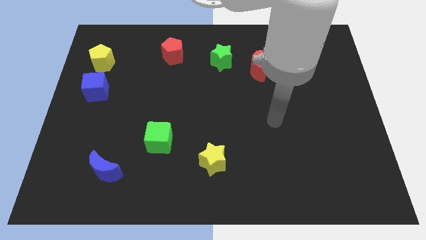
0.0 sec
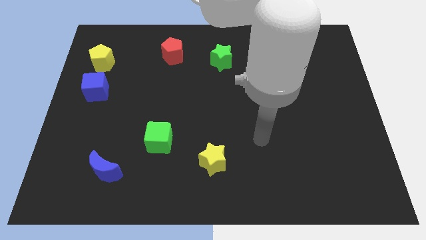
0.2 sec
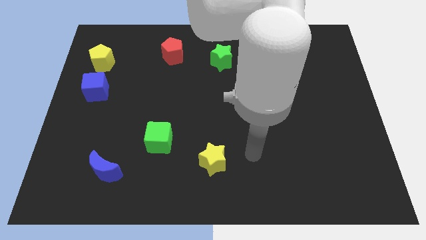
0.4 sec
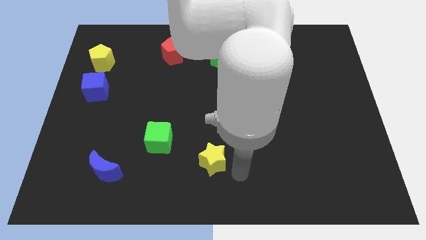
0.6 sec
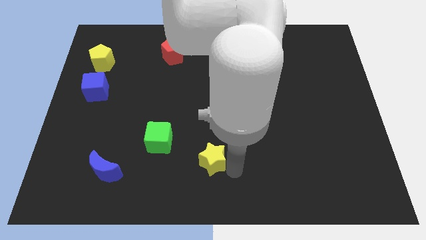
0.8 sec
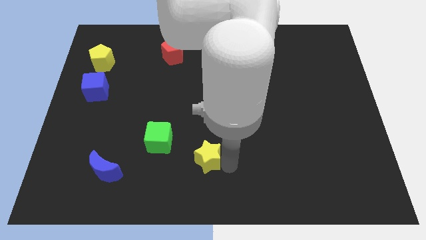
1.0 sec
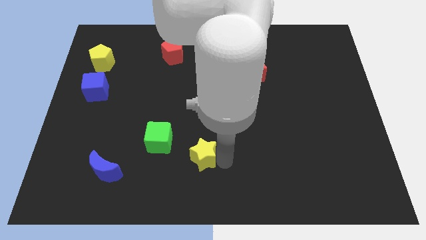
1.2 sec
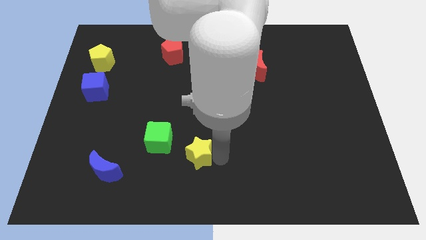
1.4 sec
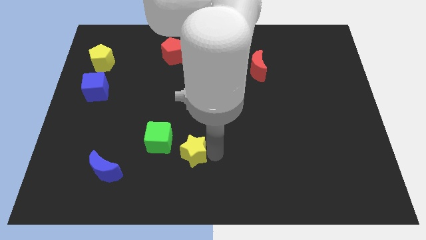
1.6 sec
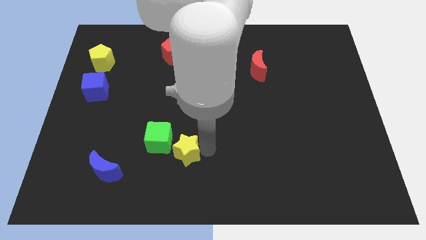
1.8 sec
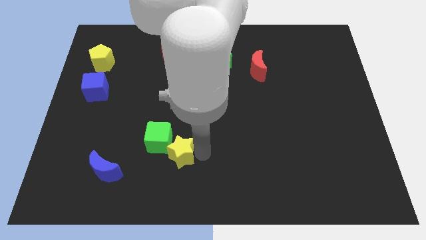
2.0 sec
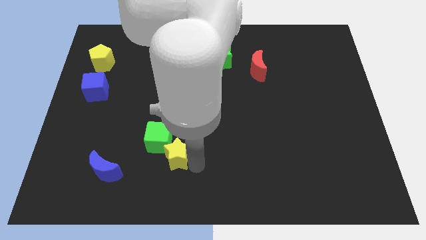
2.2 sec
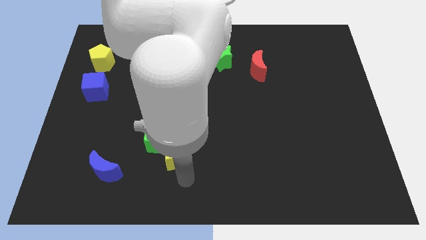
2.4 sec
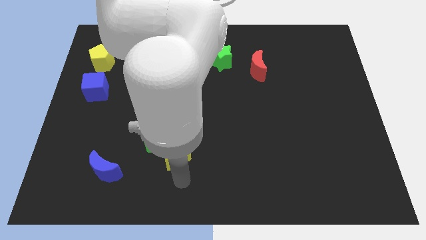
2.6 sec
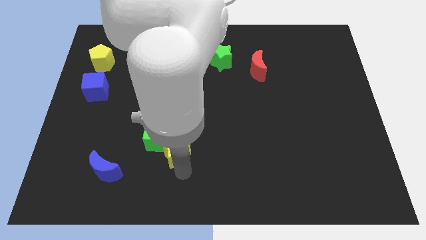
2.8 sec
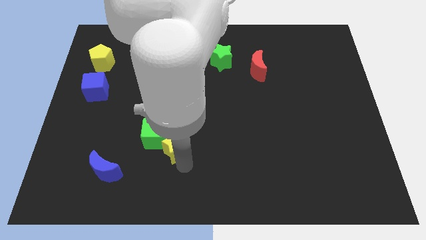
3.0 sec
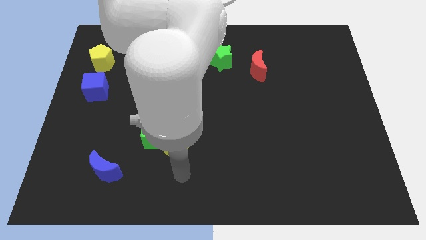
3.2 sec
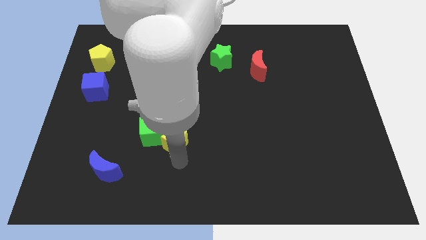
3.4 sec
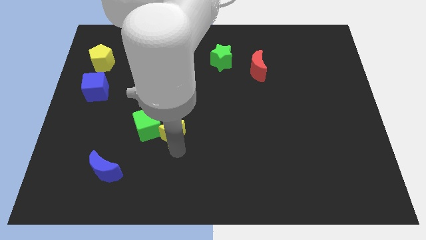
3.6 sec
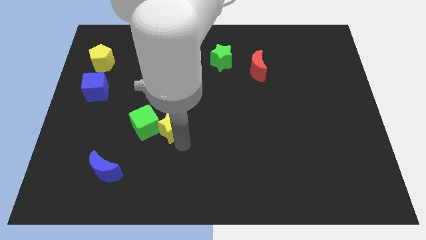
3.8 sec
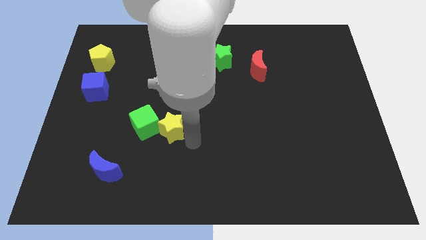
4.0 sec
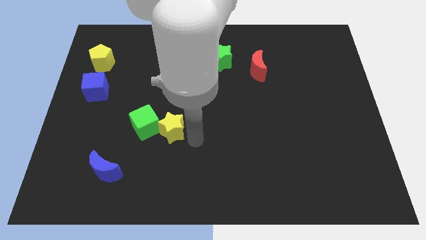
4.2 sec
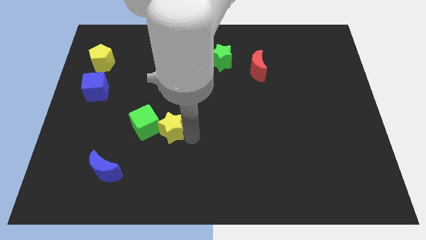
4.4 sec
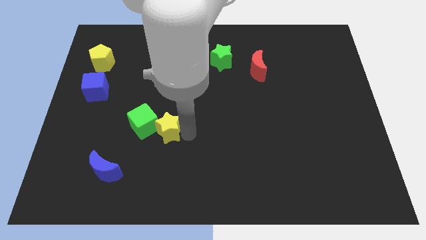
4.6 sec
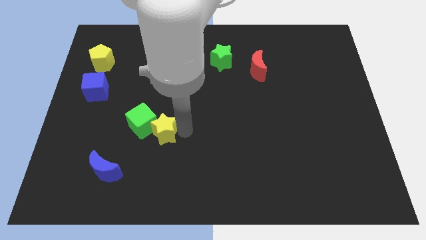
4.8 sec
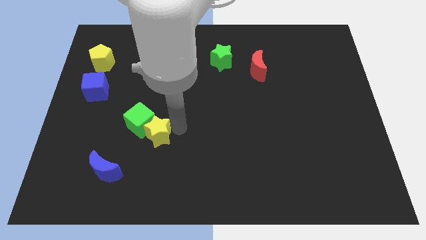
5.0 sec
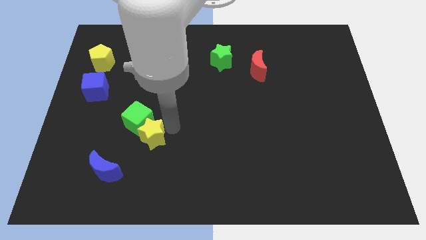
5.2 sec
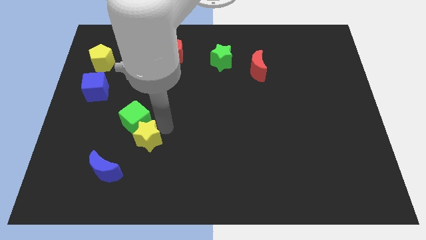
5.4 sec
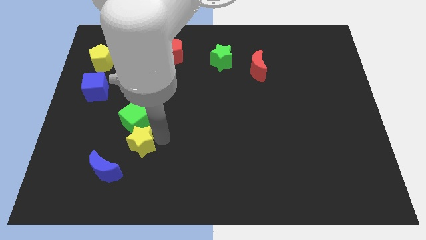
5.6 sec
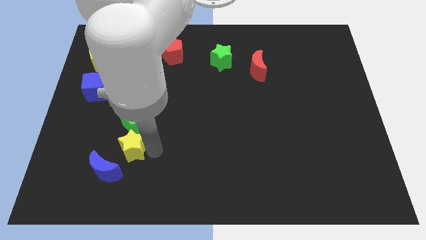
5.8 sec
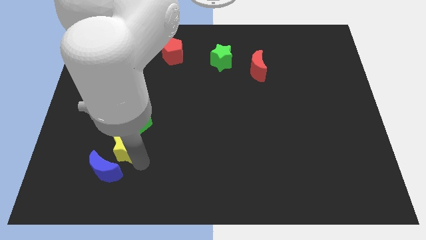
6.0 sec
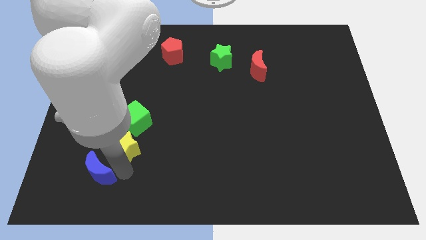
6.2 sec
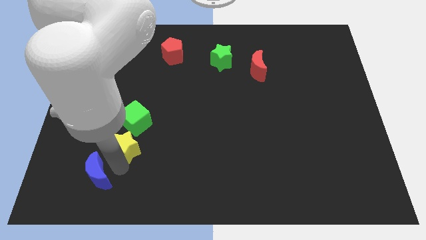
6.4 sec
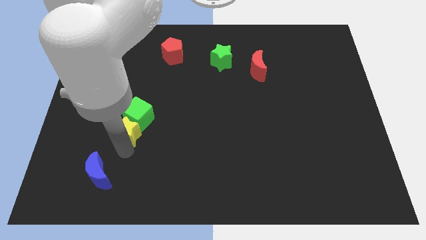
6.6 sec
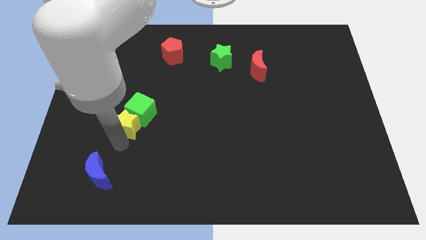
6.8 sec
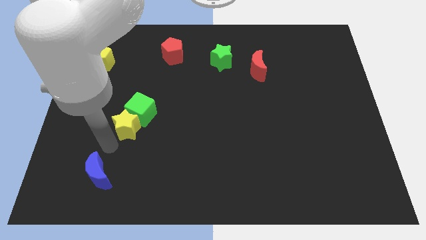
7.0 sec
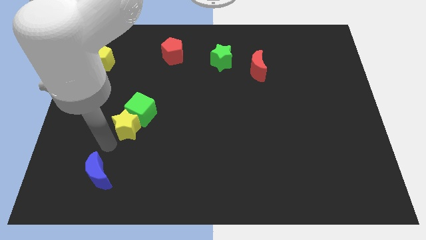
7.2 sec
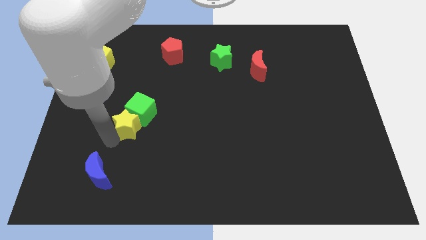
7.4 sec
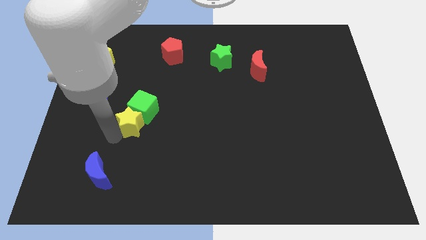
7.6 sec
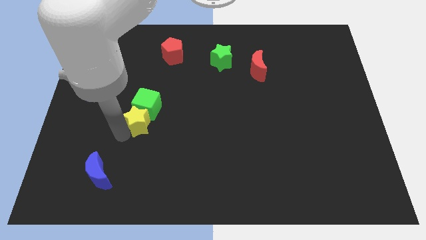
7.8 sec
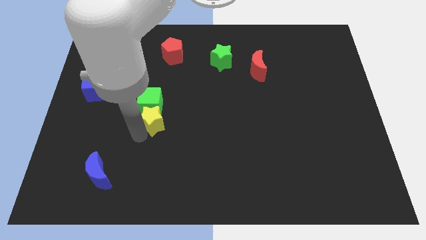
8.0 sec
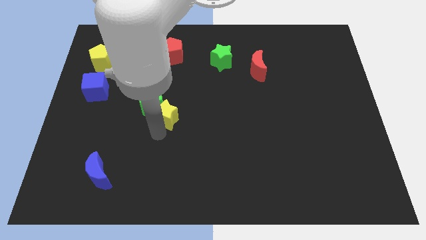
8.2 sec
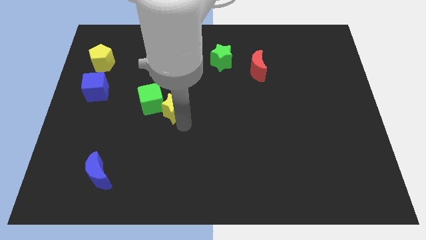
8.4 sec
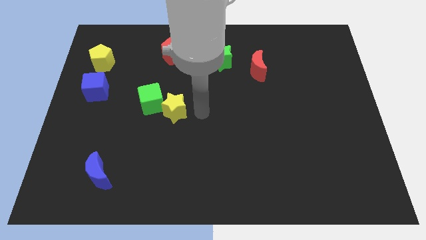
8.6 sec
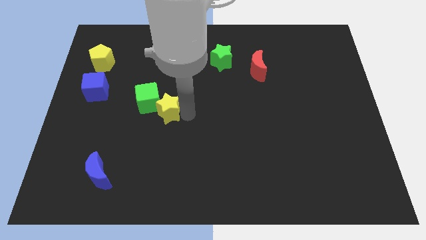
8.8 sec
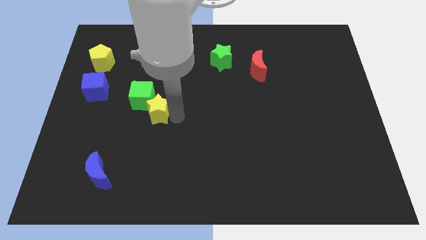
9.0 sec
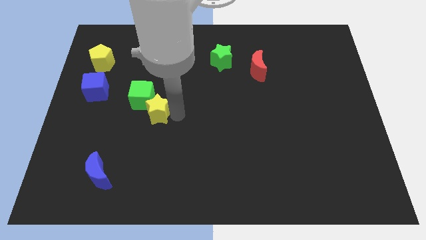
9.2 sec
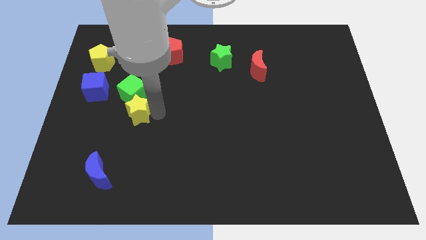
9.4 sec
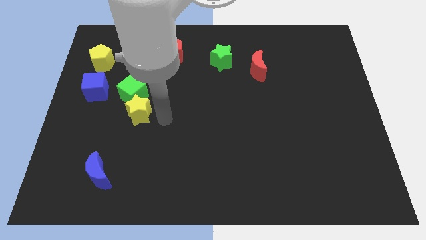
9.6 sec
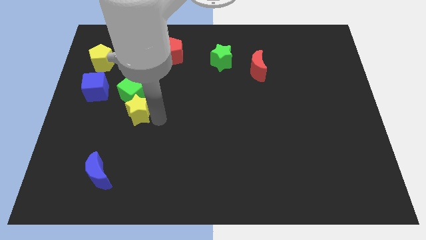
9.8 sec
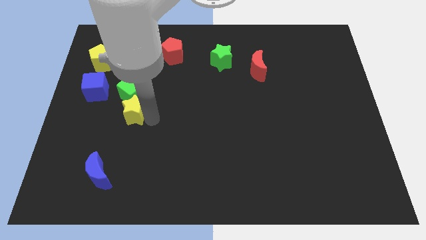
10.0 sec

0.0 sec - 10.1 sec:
push the yellow star diagonally down and to the right of the blue cube

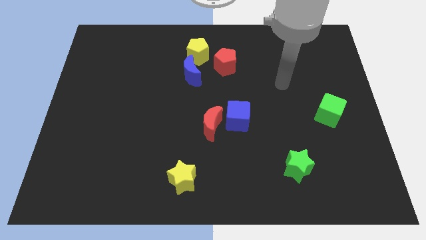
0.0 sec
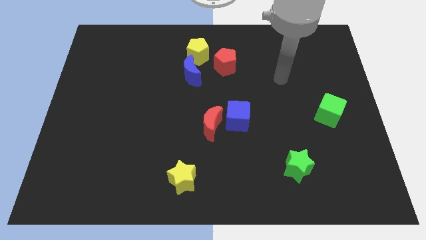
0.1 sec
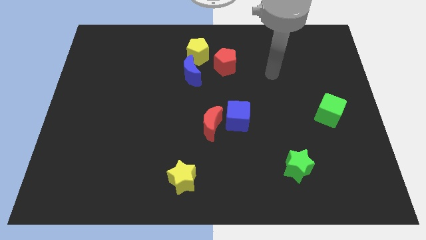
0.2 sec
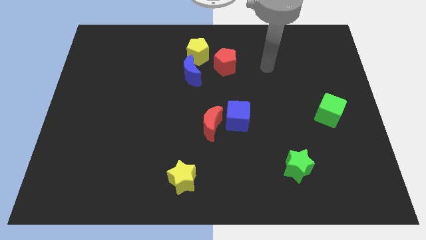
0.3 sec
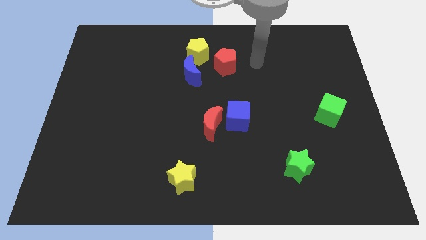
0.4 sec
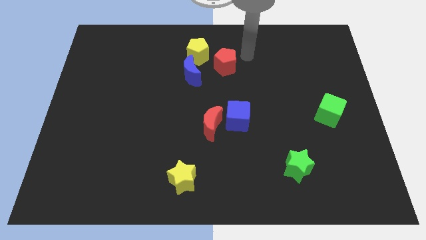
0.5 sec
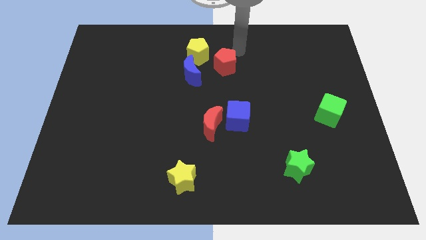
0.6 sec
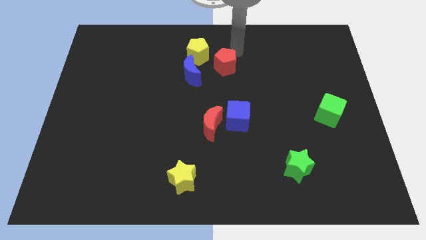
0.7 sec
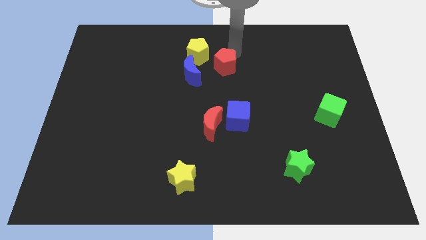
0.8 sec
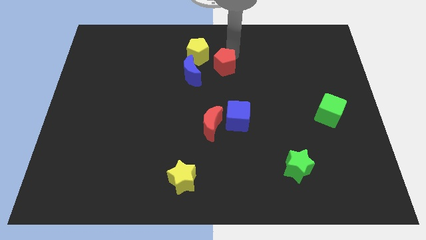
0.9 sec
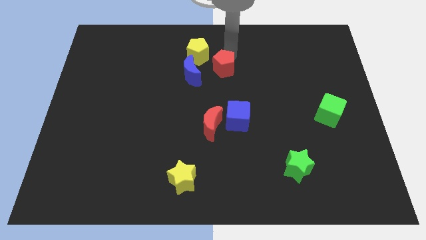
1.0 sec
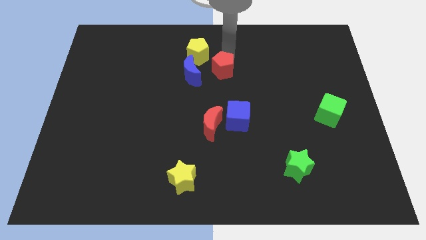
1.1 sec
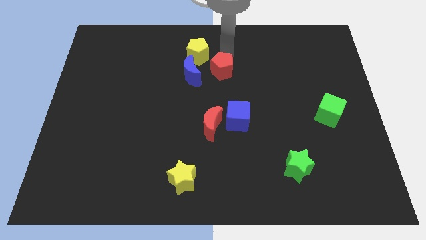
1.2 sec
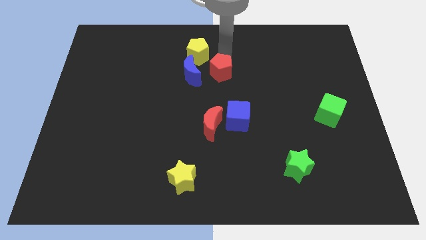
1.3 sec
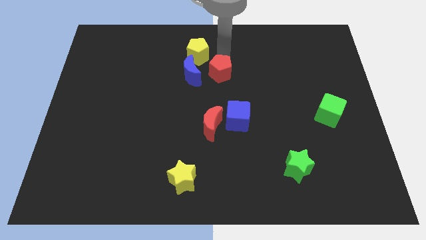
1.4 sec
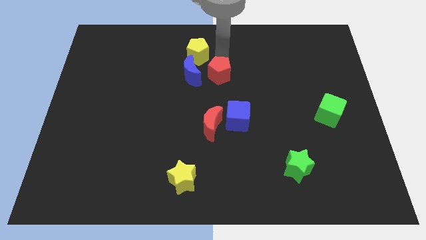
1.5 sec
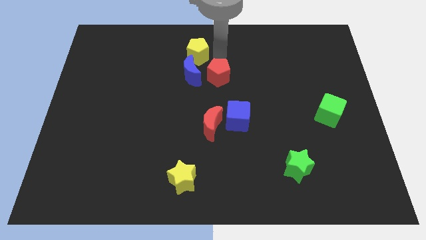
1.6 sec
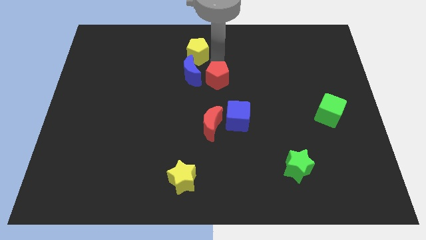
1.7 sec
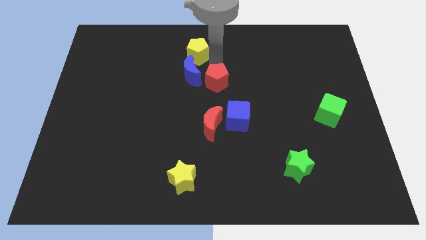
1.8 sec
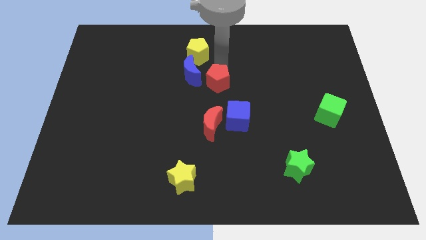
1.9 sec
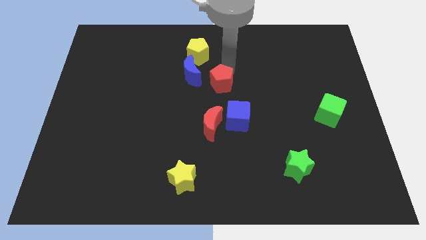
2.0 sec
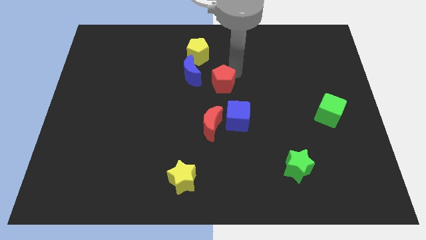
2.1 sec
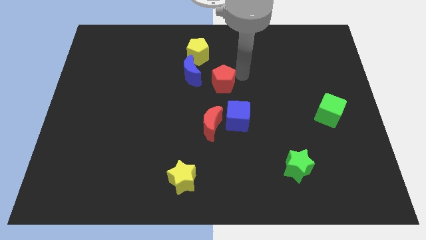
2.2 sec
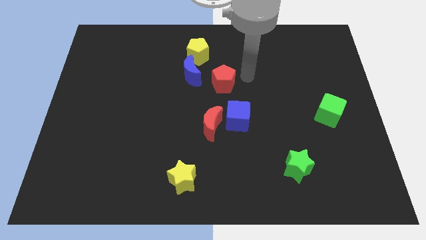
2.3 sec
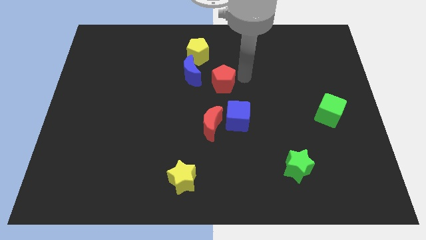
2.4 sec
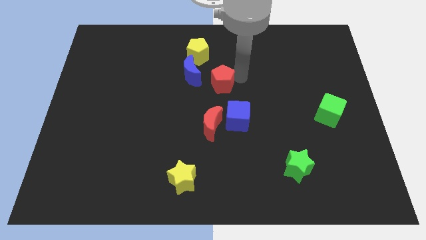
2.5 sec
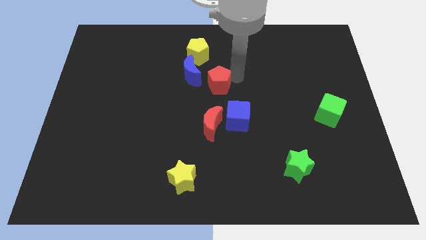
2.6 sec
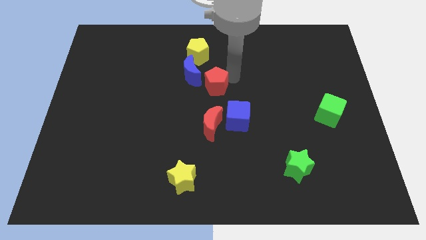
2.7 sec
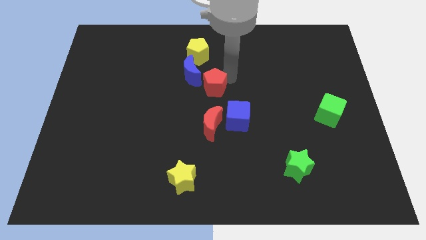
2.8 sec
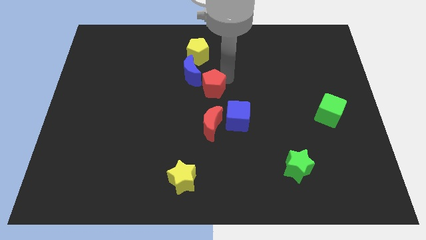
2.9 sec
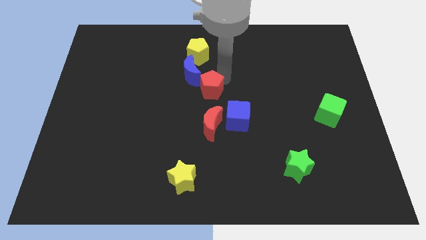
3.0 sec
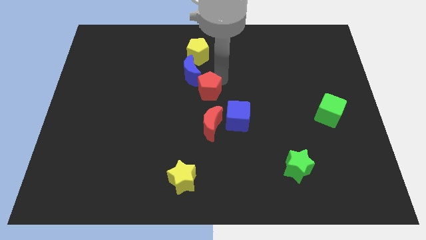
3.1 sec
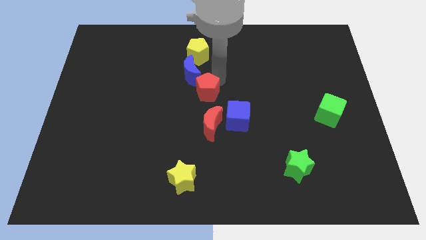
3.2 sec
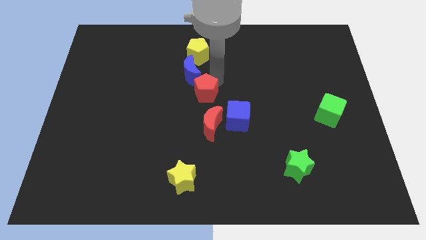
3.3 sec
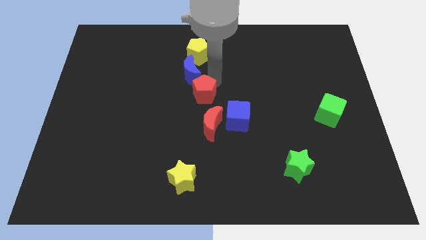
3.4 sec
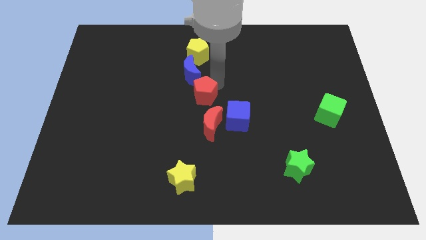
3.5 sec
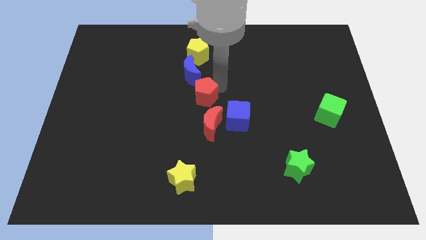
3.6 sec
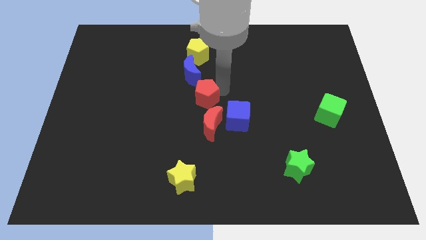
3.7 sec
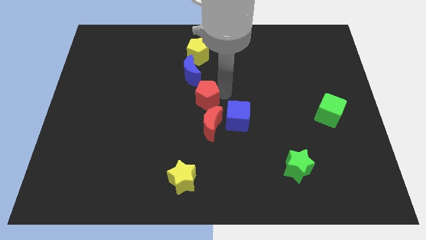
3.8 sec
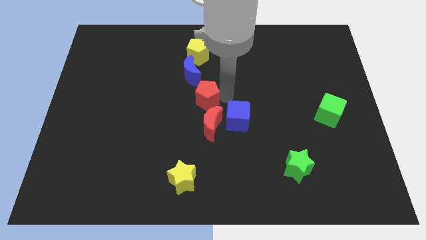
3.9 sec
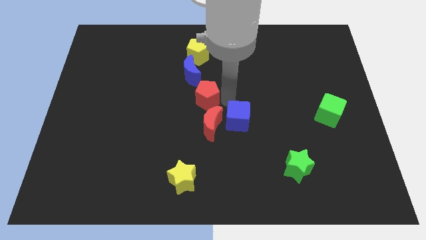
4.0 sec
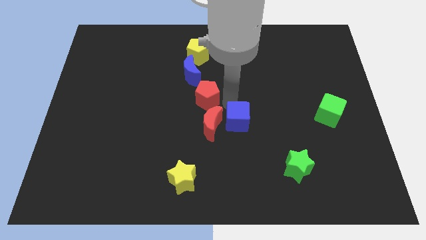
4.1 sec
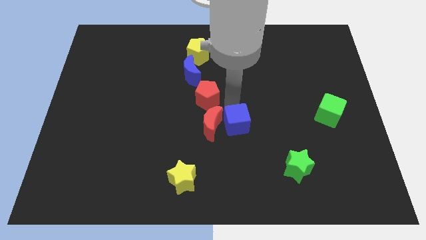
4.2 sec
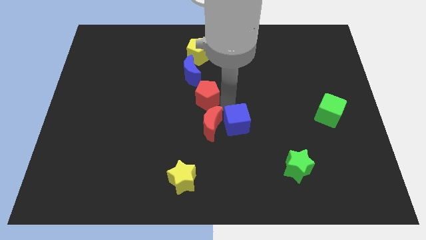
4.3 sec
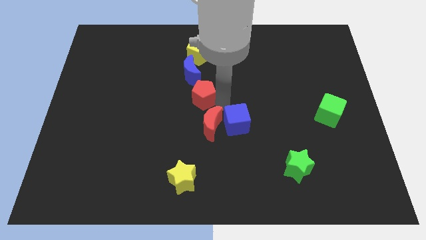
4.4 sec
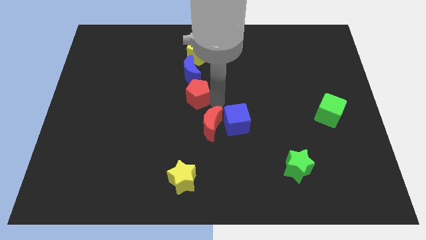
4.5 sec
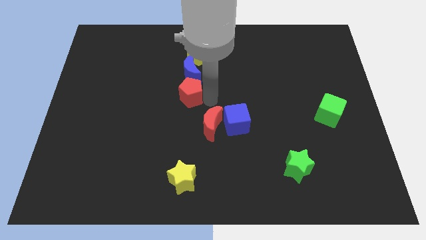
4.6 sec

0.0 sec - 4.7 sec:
push the red pentagon to the bottom left side of the blue moon
